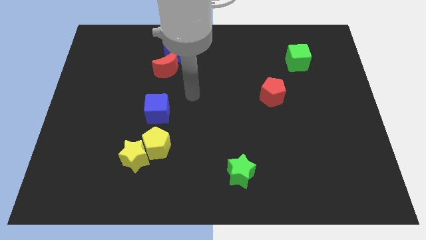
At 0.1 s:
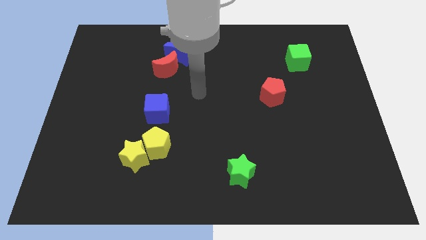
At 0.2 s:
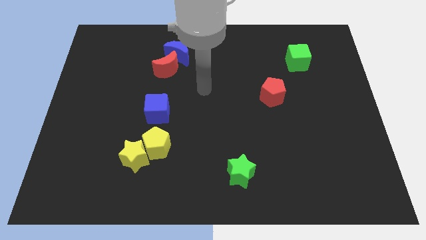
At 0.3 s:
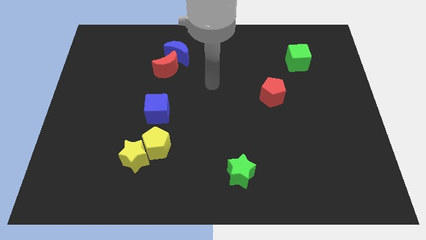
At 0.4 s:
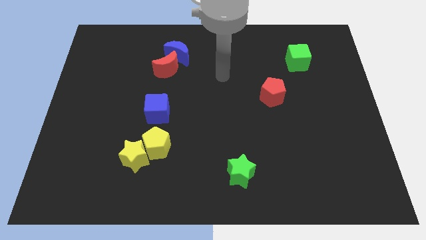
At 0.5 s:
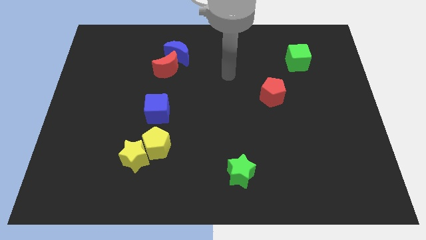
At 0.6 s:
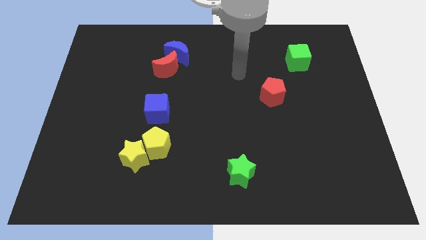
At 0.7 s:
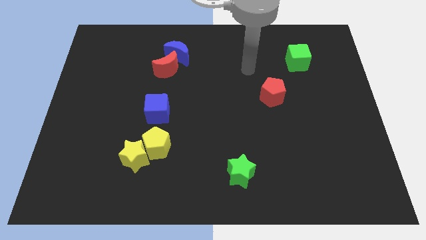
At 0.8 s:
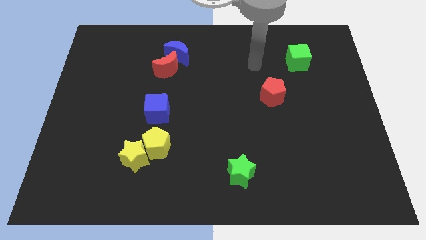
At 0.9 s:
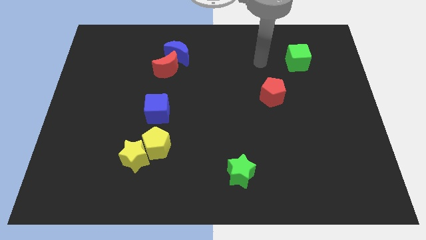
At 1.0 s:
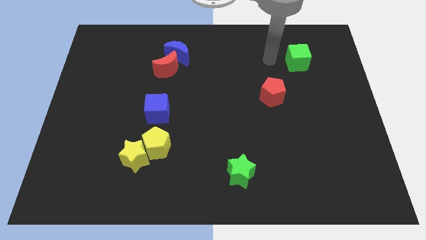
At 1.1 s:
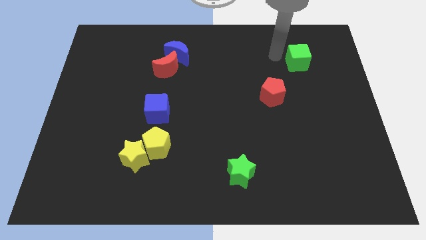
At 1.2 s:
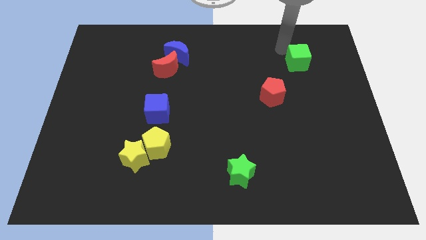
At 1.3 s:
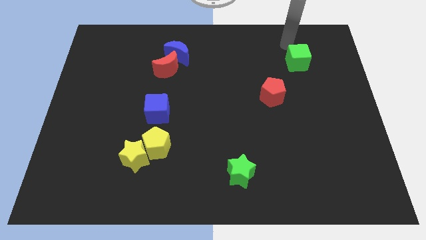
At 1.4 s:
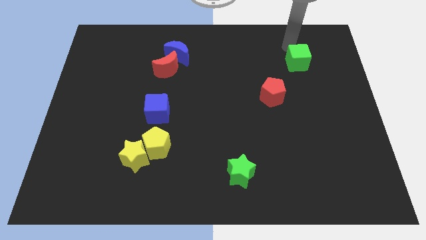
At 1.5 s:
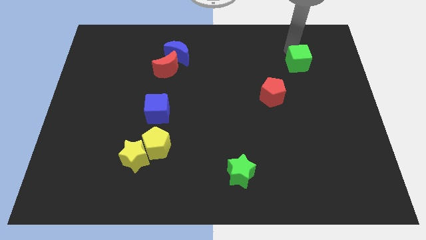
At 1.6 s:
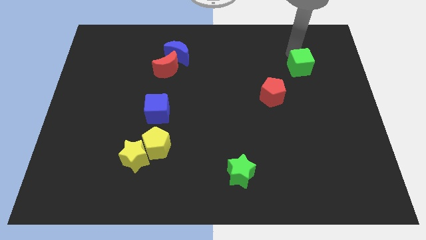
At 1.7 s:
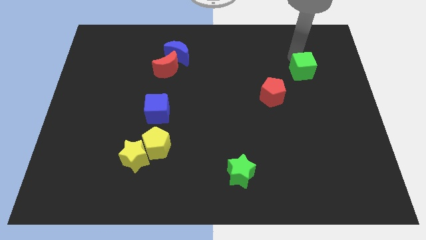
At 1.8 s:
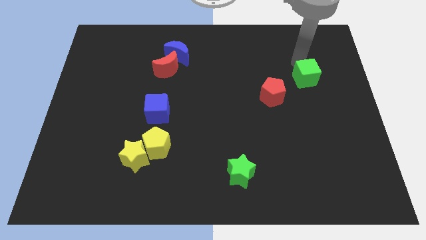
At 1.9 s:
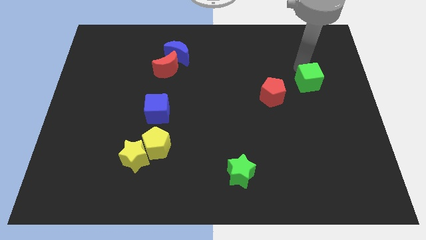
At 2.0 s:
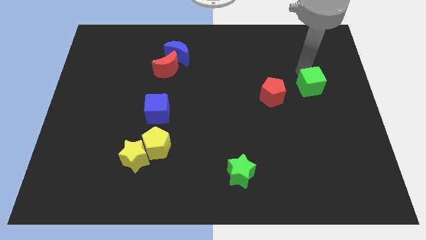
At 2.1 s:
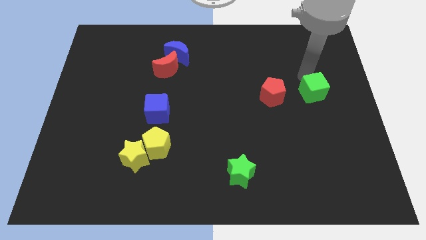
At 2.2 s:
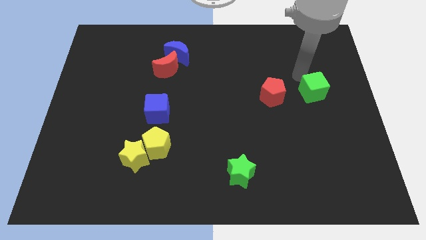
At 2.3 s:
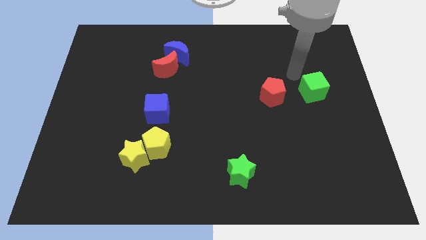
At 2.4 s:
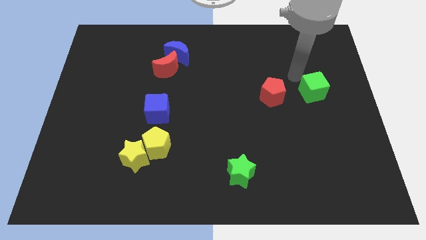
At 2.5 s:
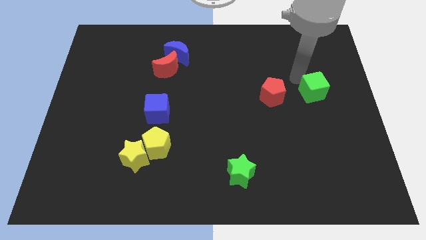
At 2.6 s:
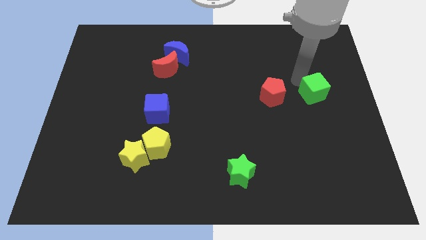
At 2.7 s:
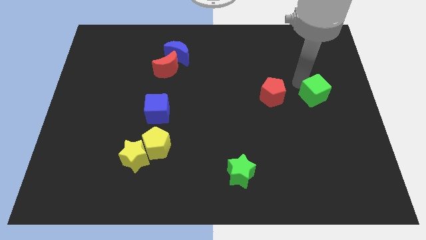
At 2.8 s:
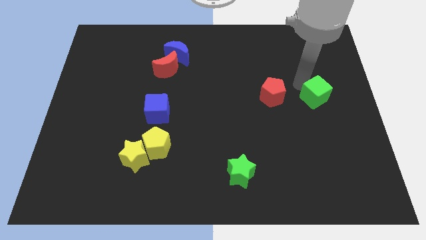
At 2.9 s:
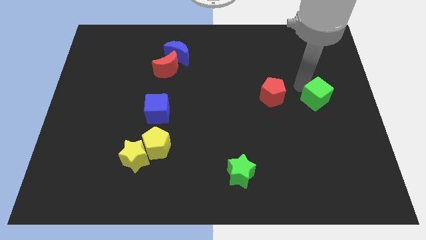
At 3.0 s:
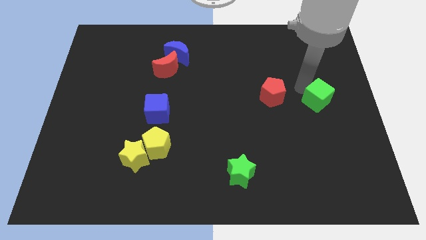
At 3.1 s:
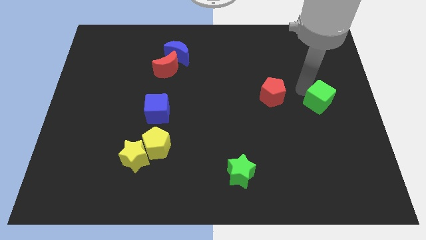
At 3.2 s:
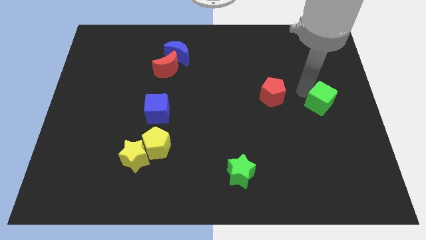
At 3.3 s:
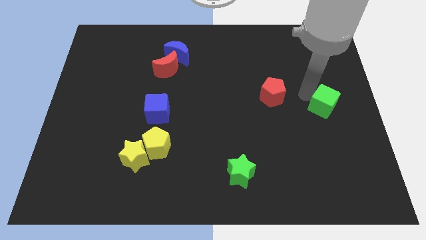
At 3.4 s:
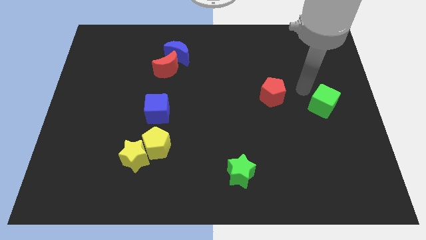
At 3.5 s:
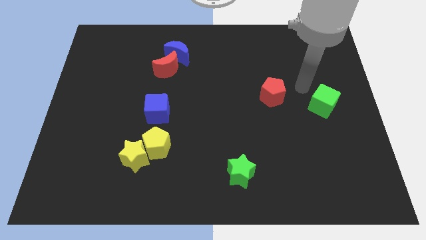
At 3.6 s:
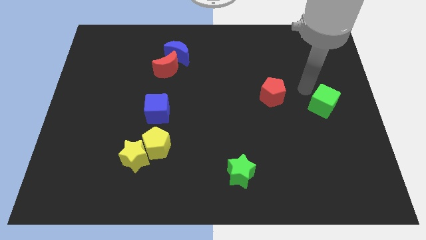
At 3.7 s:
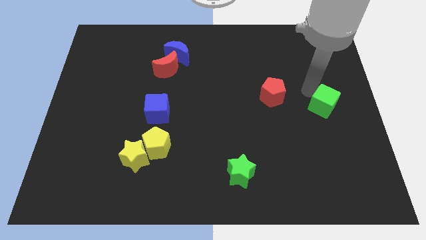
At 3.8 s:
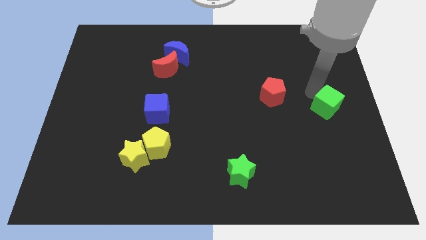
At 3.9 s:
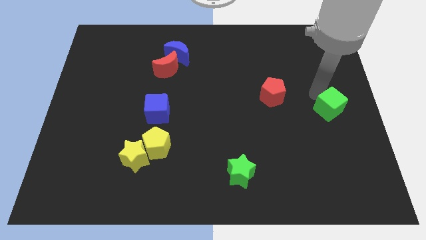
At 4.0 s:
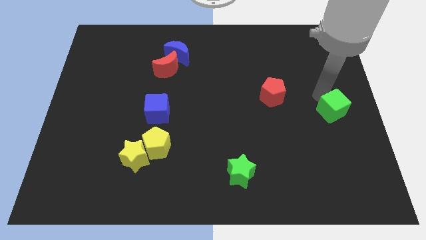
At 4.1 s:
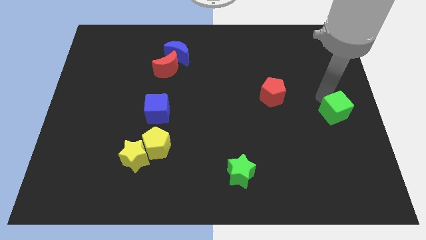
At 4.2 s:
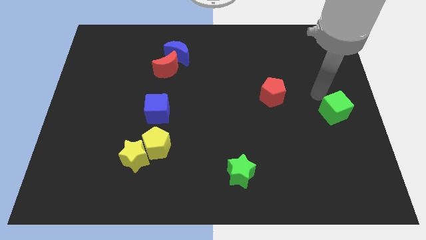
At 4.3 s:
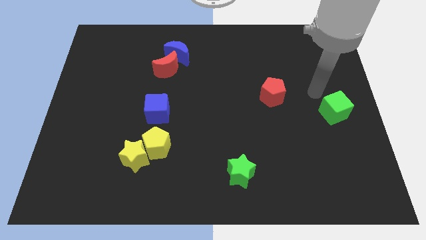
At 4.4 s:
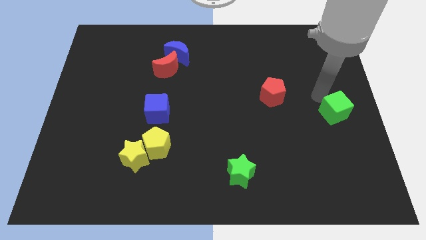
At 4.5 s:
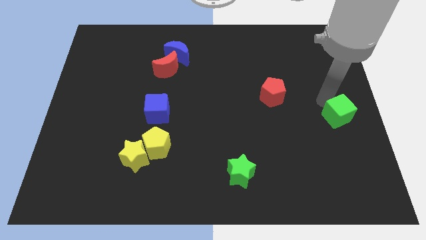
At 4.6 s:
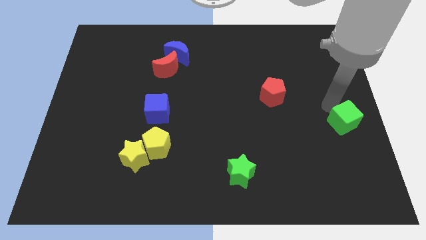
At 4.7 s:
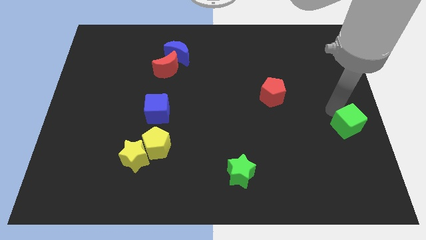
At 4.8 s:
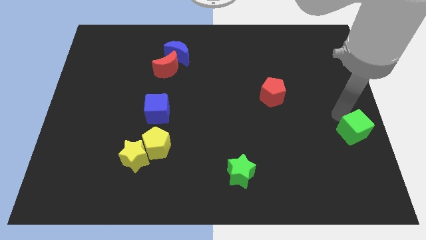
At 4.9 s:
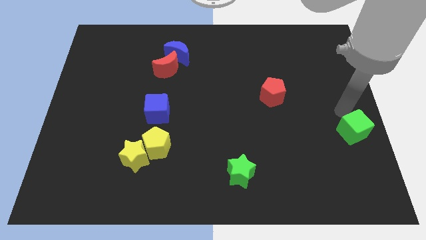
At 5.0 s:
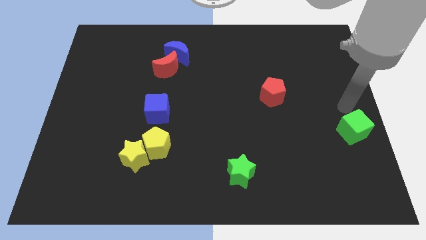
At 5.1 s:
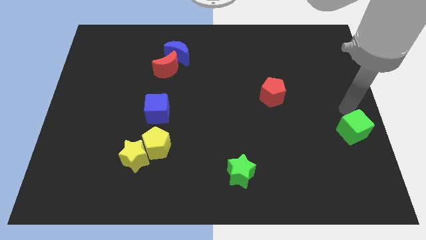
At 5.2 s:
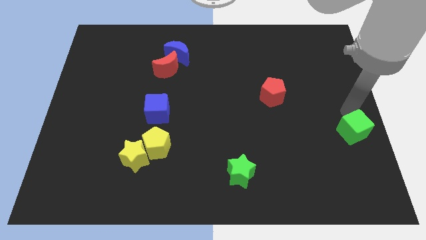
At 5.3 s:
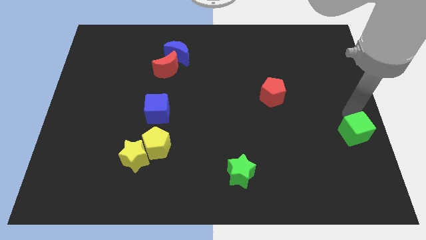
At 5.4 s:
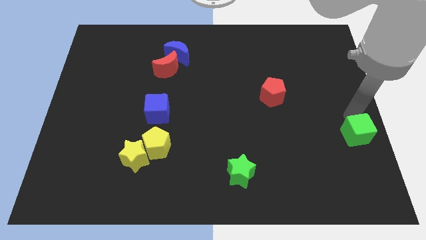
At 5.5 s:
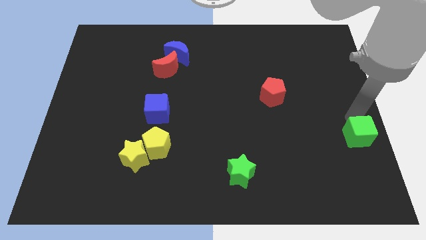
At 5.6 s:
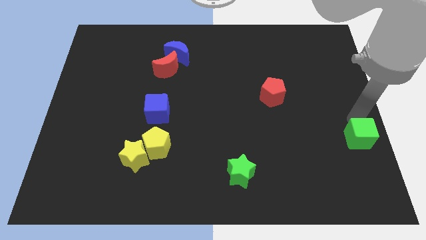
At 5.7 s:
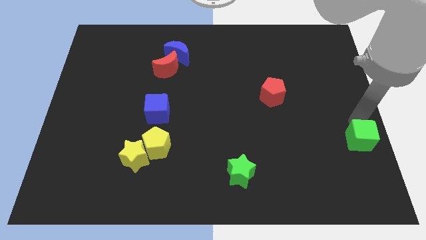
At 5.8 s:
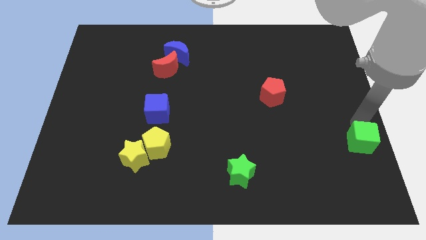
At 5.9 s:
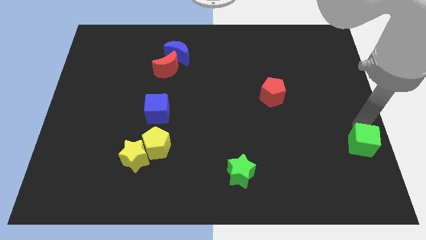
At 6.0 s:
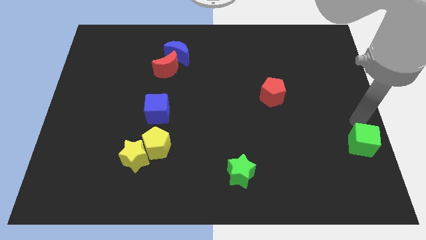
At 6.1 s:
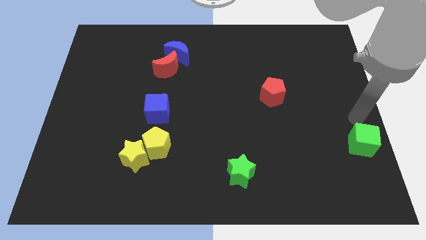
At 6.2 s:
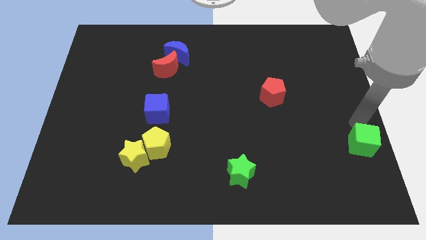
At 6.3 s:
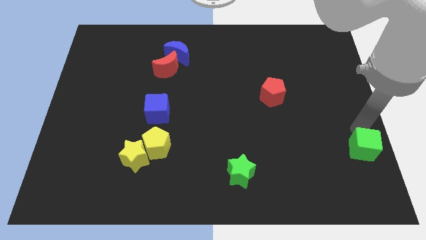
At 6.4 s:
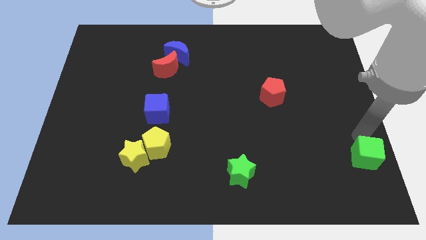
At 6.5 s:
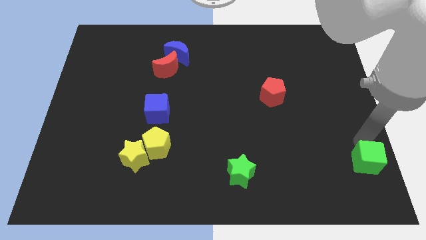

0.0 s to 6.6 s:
slide the green cube to the bottom right
